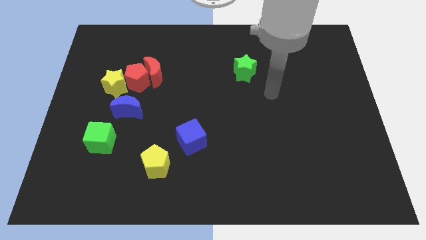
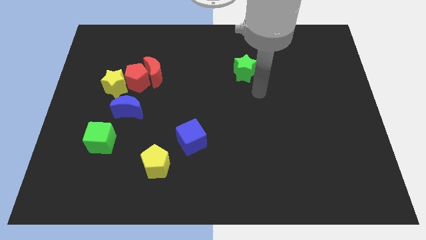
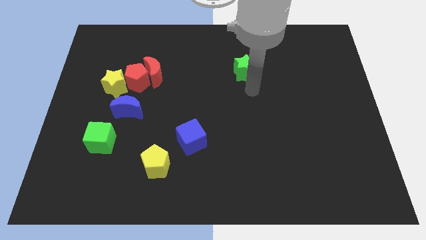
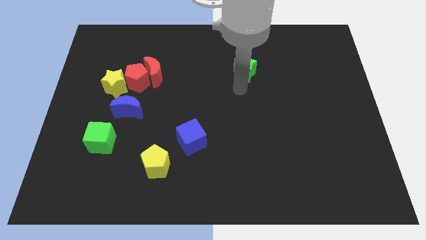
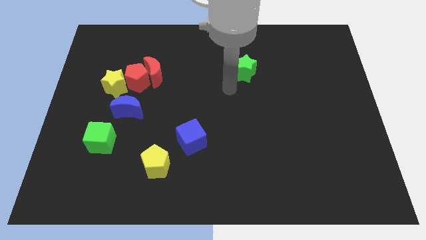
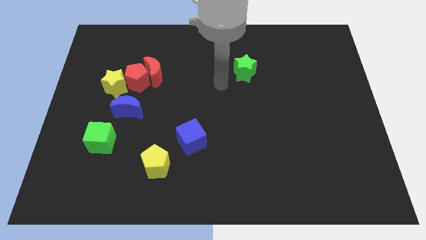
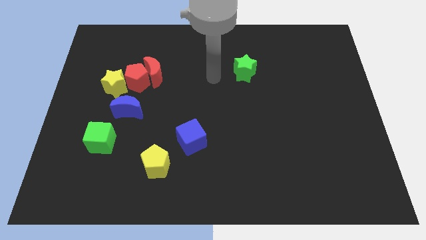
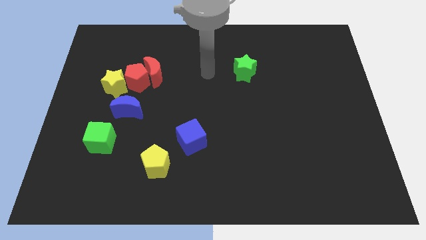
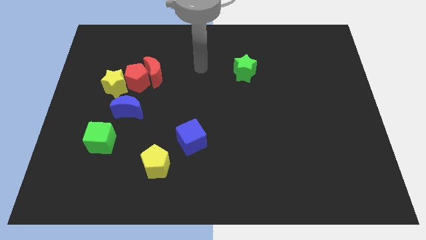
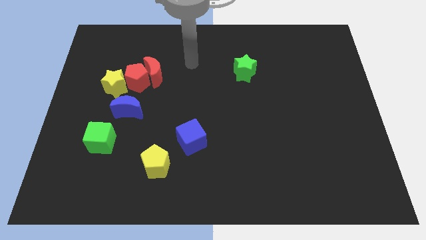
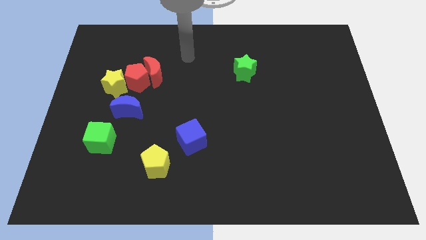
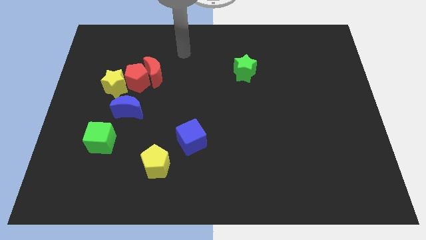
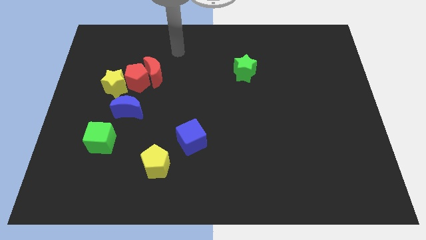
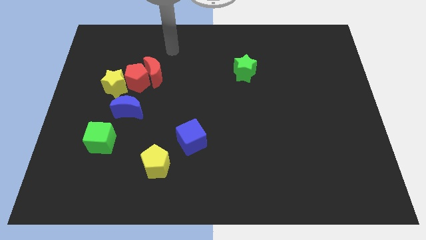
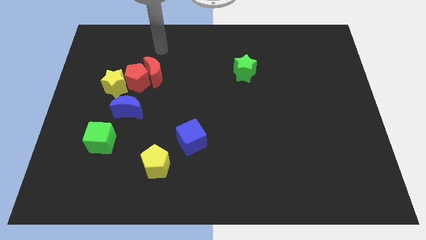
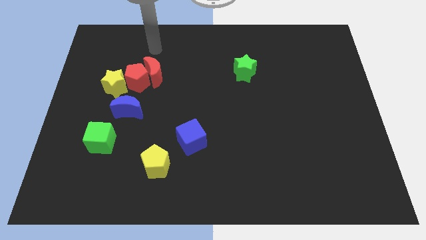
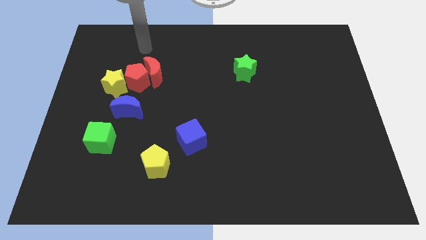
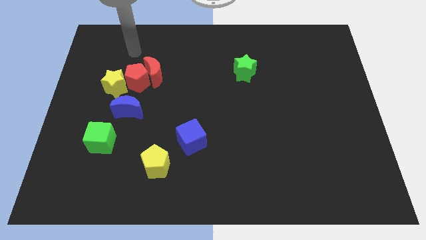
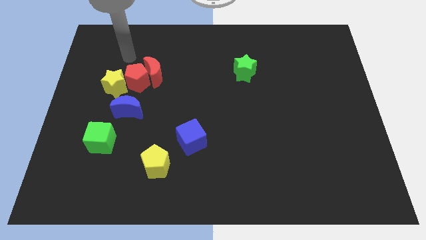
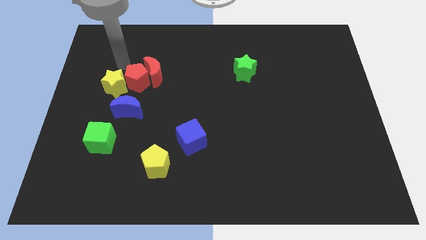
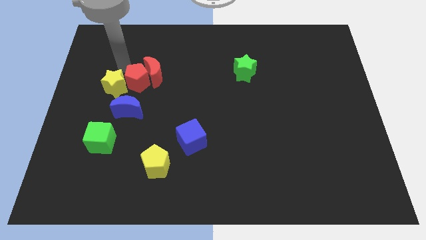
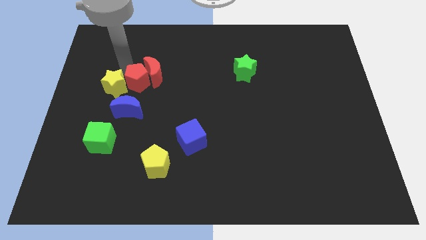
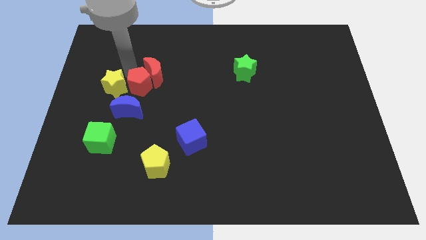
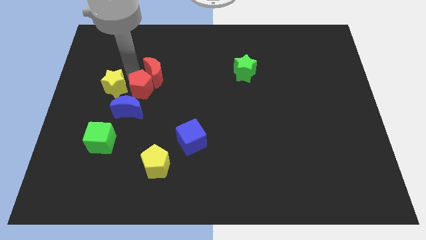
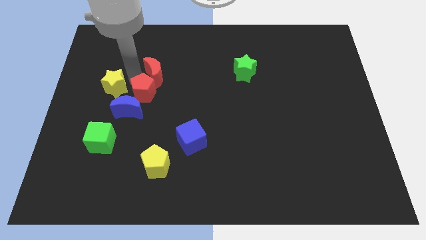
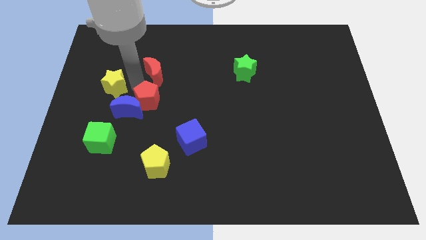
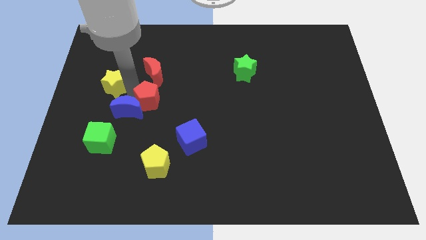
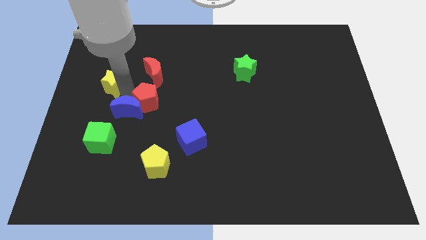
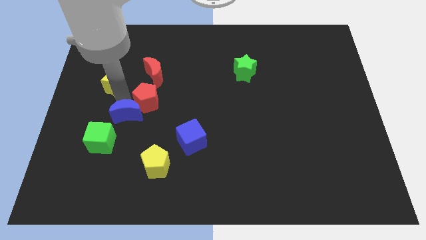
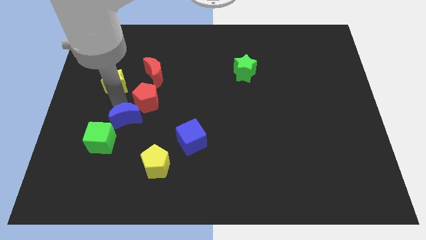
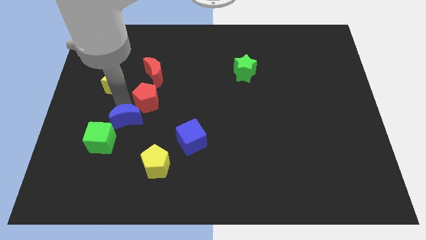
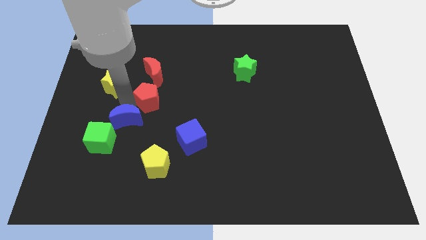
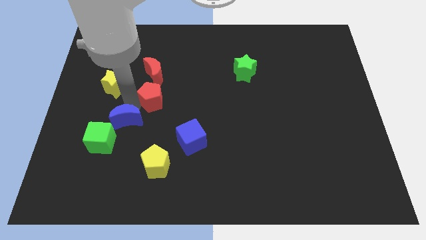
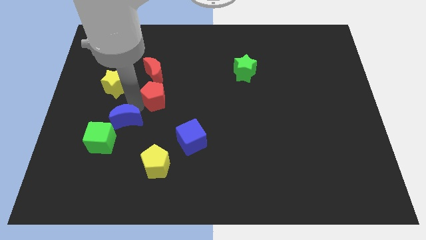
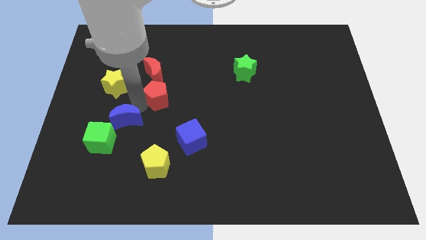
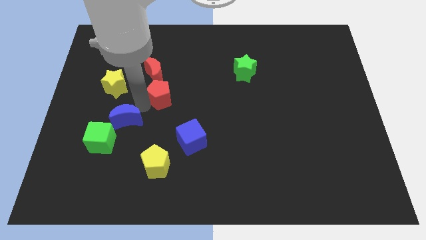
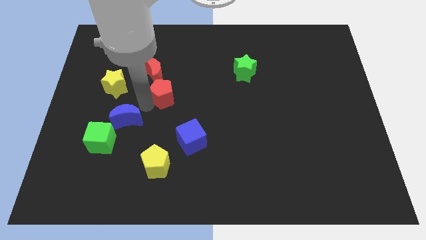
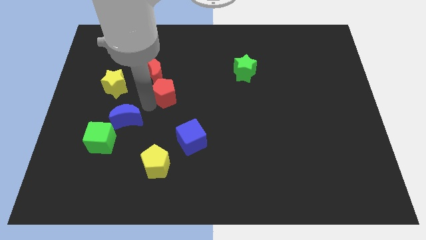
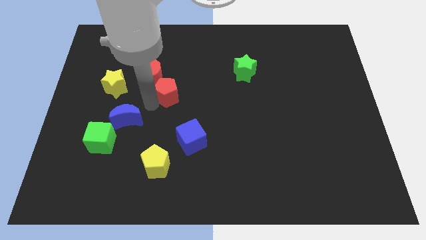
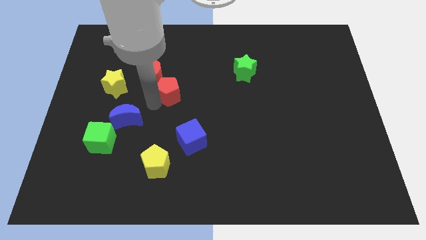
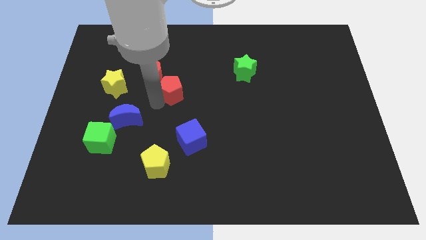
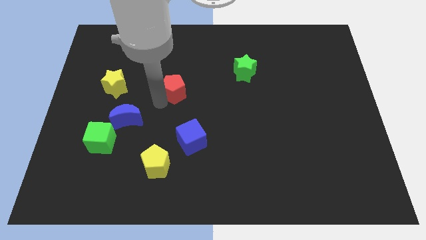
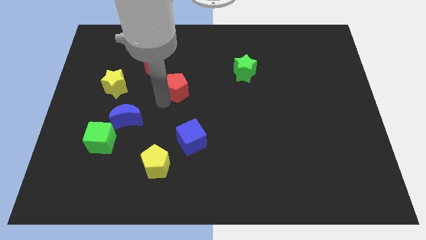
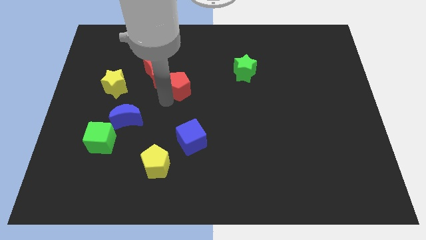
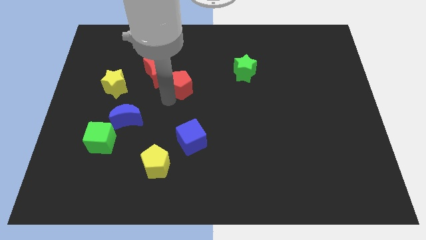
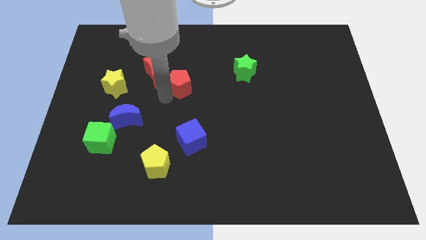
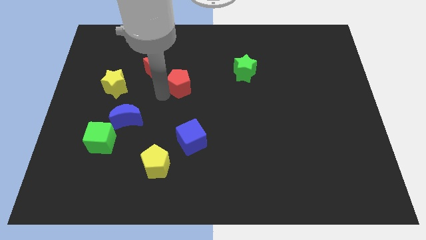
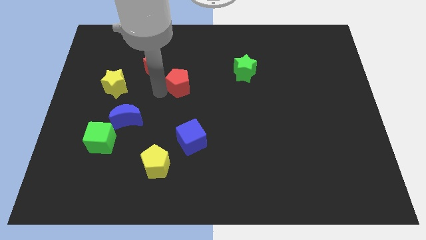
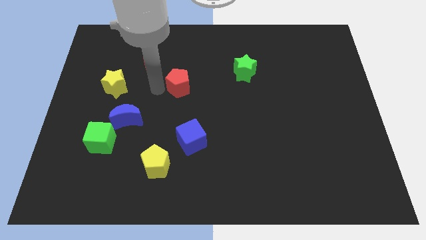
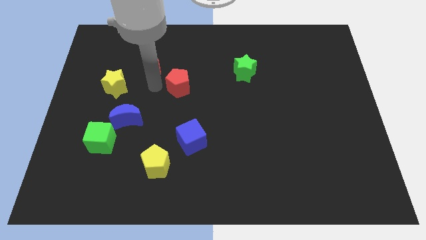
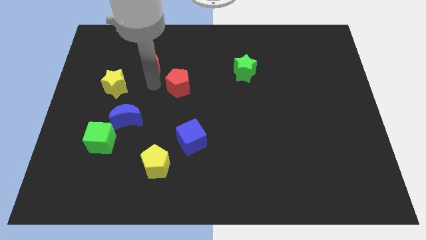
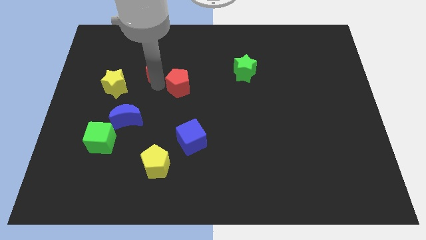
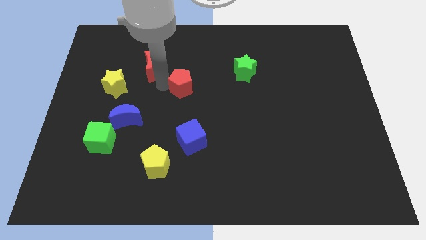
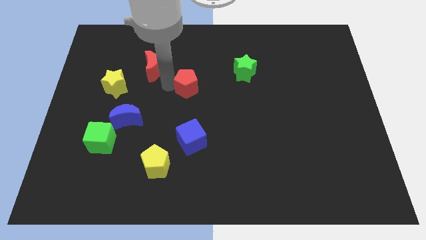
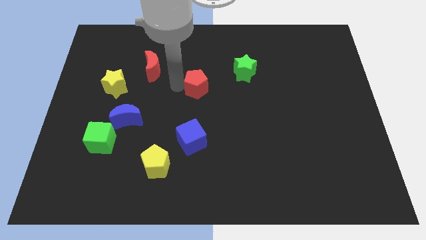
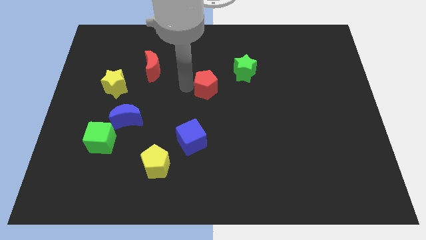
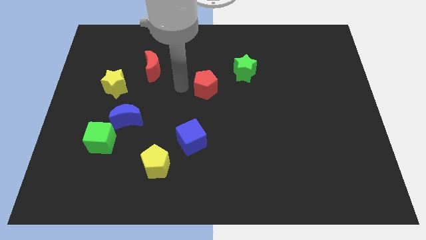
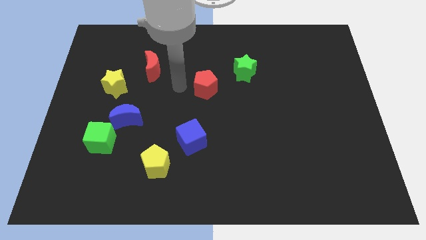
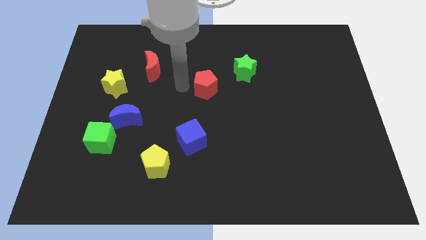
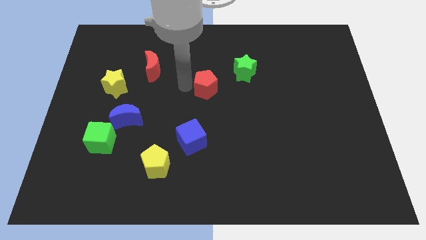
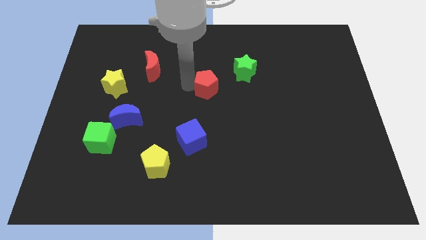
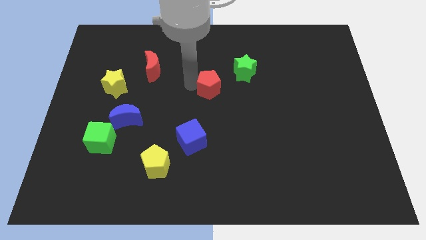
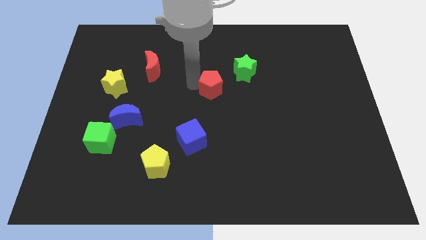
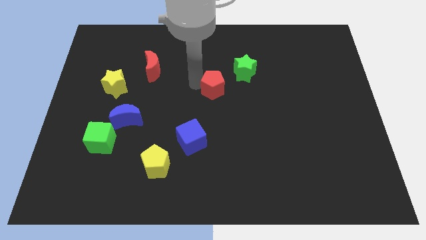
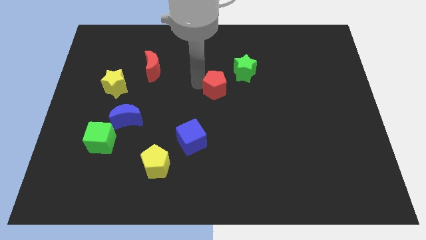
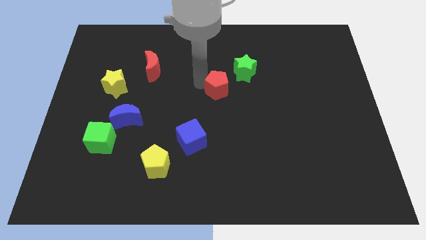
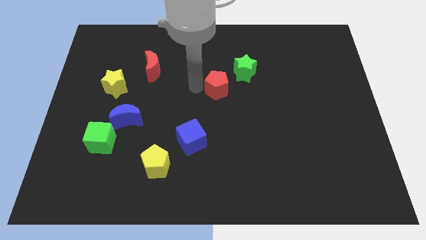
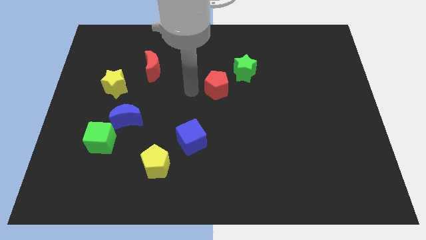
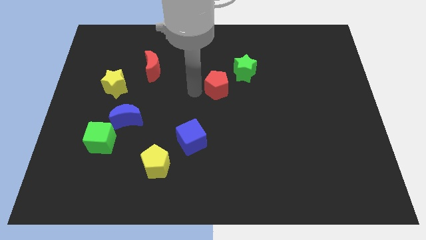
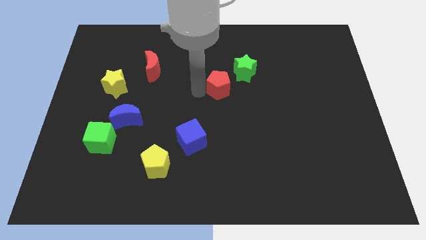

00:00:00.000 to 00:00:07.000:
slide the red pentagon to the right

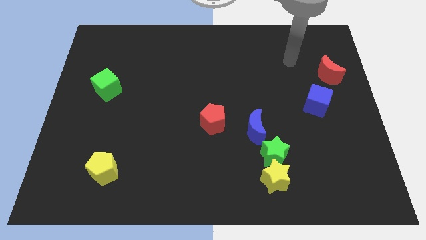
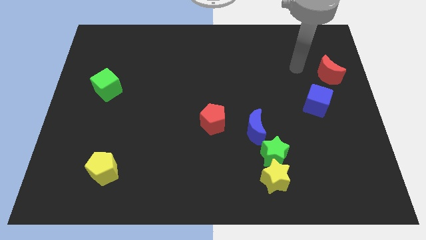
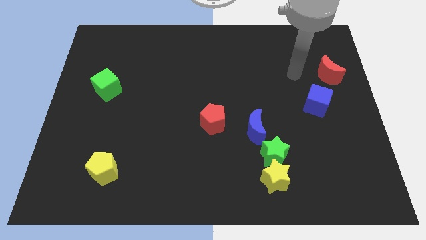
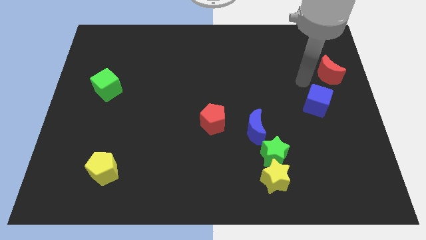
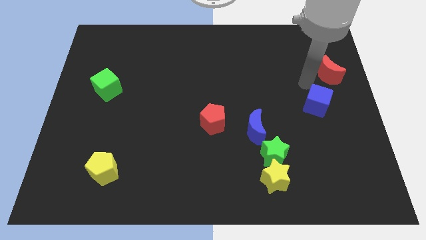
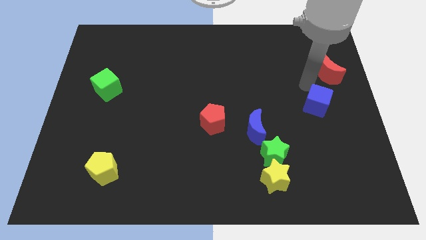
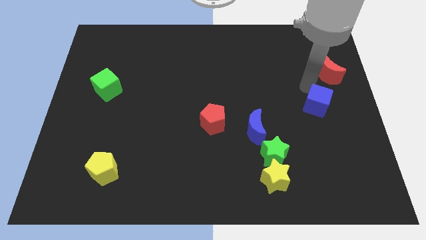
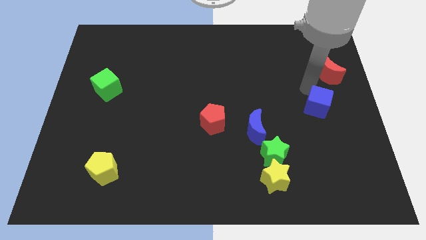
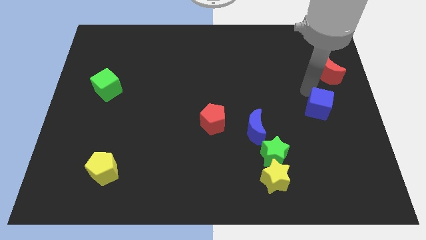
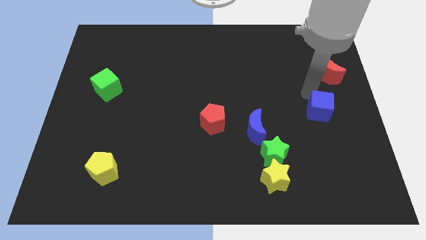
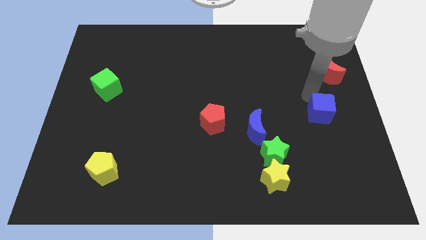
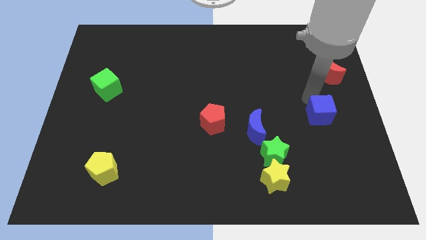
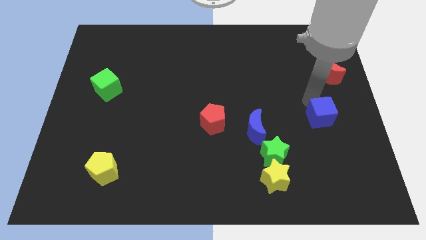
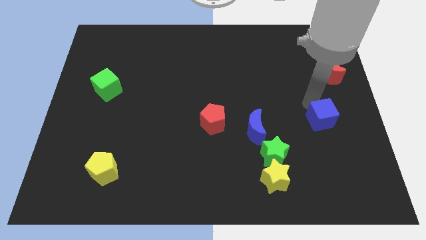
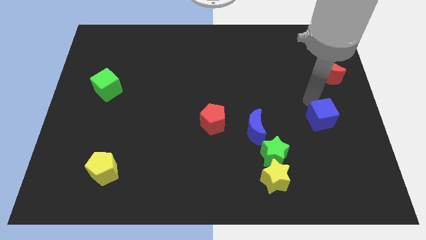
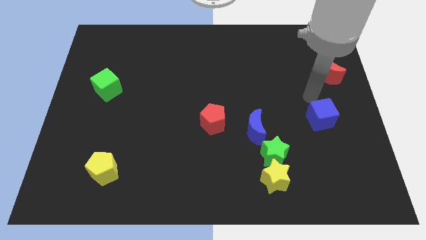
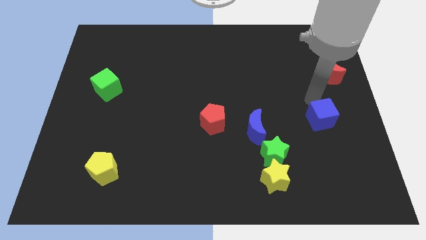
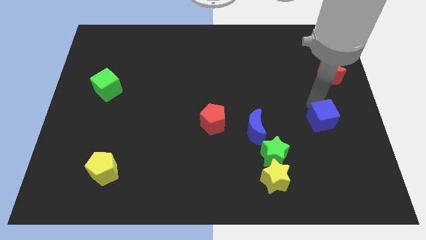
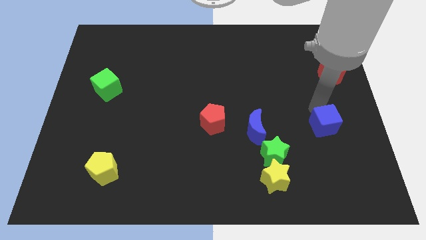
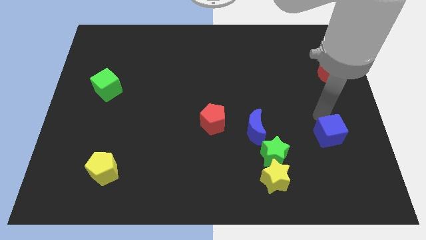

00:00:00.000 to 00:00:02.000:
slightly push the blue cube down
